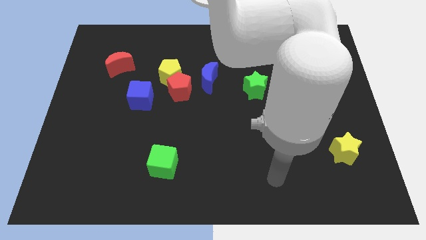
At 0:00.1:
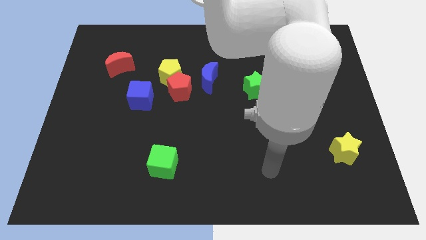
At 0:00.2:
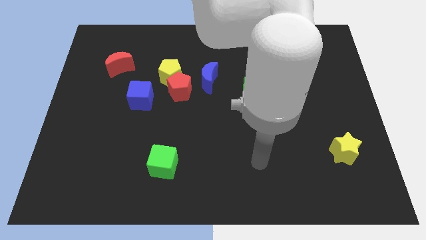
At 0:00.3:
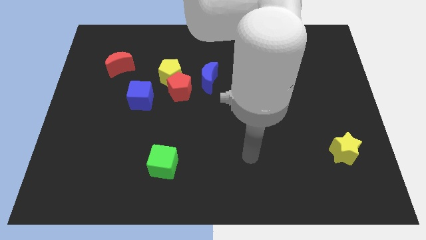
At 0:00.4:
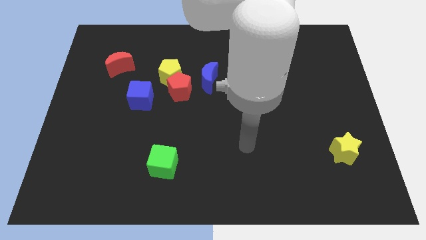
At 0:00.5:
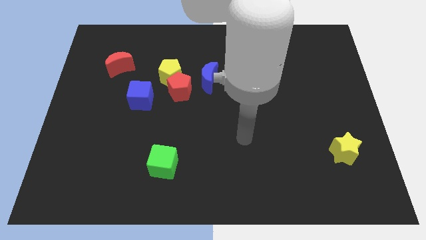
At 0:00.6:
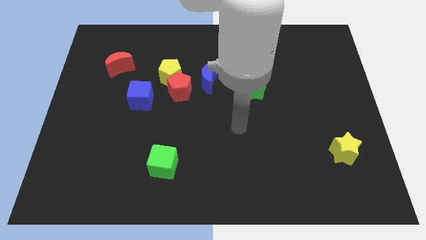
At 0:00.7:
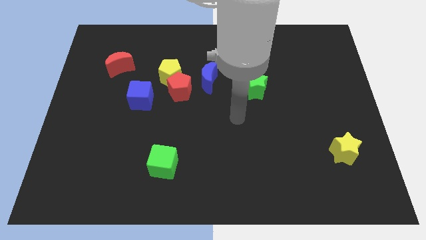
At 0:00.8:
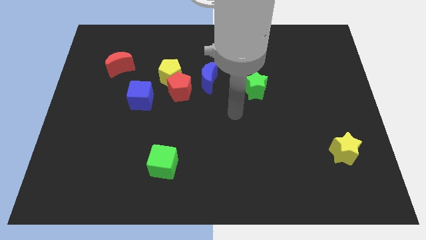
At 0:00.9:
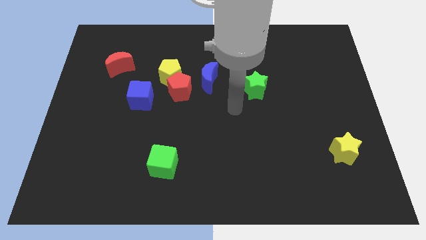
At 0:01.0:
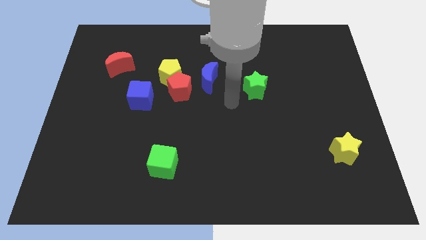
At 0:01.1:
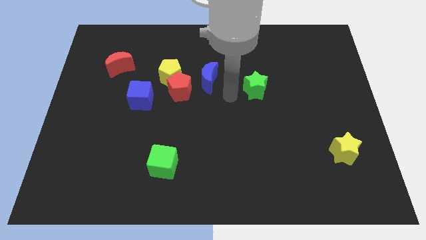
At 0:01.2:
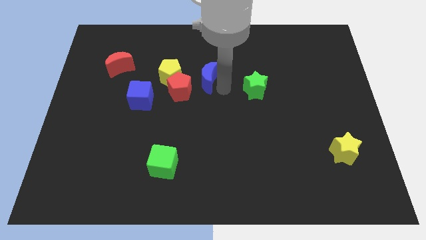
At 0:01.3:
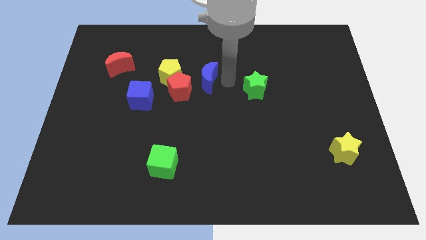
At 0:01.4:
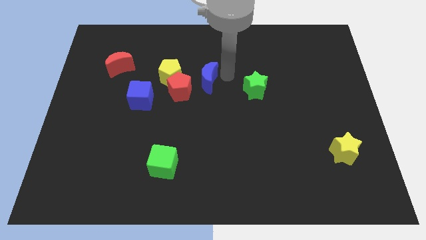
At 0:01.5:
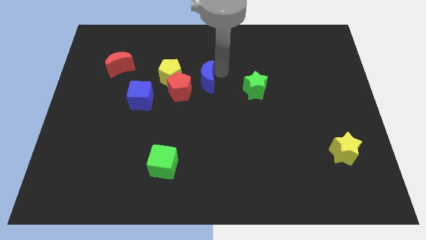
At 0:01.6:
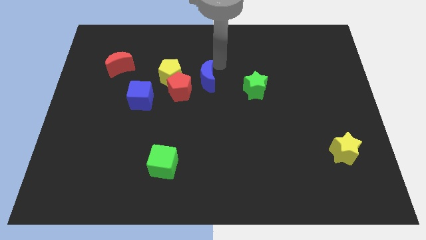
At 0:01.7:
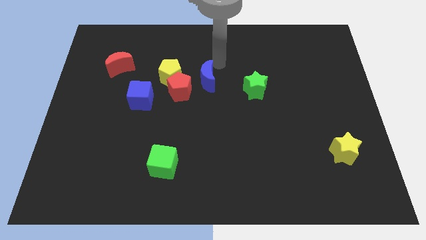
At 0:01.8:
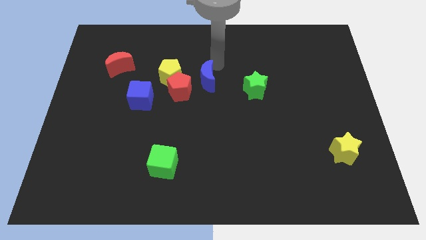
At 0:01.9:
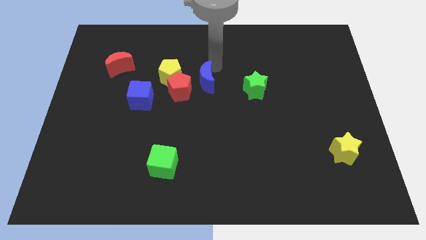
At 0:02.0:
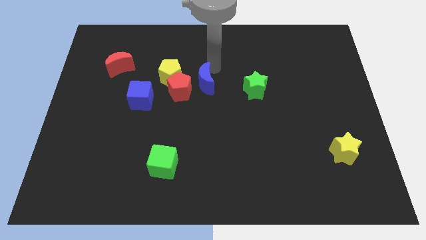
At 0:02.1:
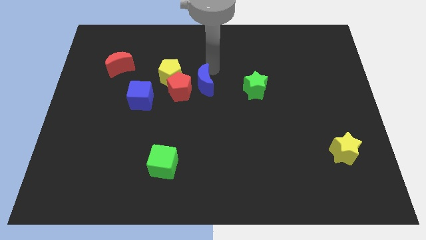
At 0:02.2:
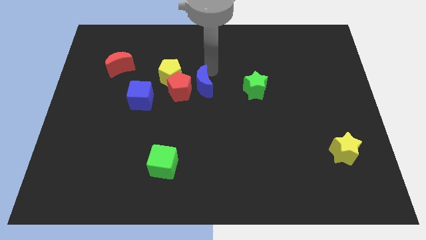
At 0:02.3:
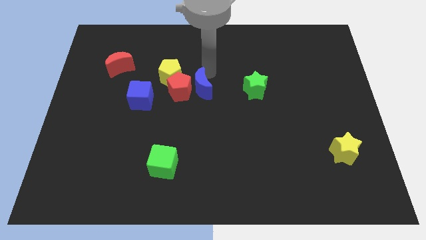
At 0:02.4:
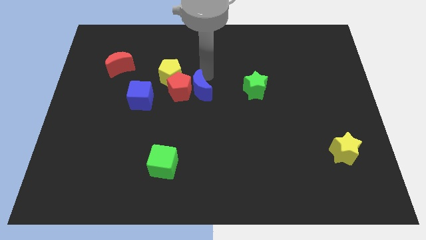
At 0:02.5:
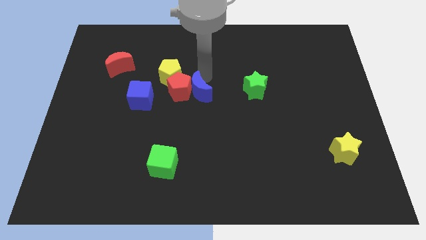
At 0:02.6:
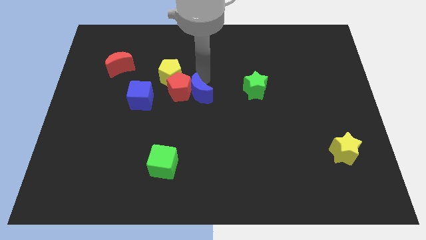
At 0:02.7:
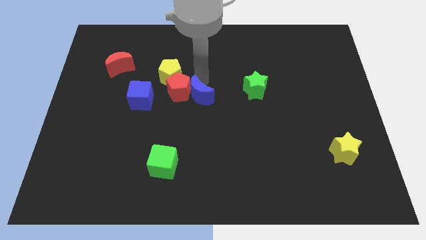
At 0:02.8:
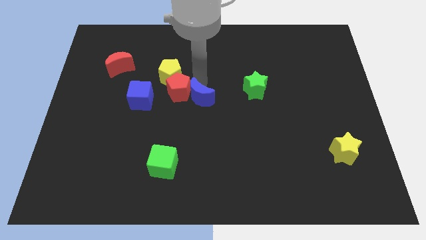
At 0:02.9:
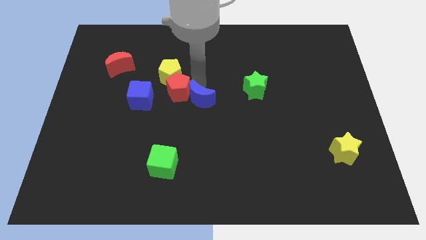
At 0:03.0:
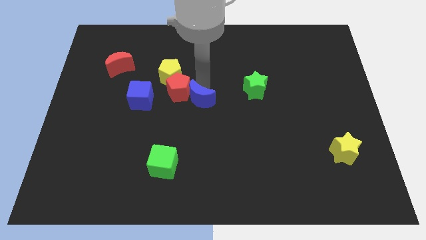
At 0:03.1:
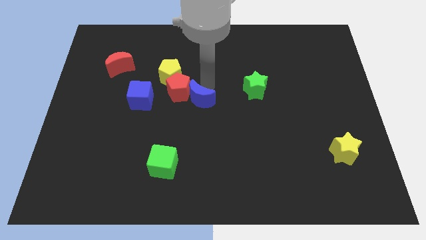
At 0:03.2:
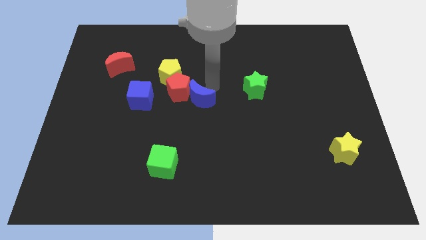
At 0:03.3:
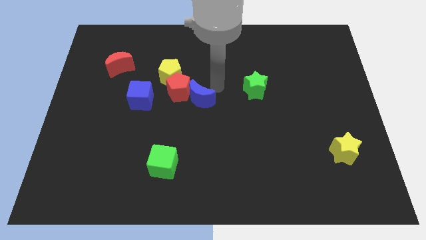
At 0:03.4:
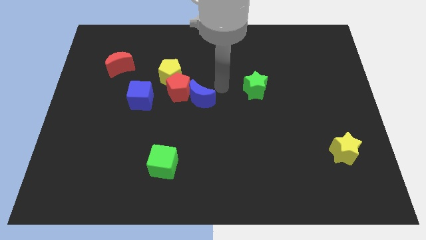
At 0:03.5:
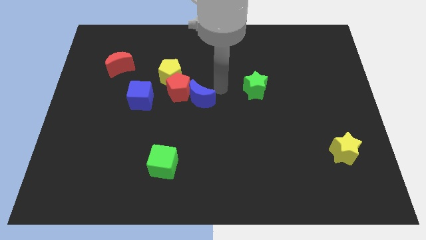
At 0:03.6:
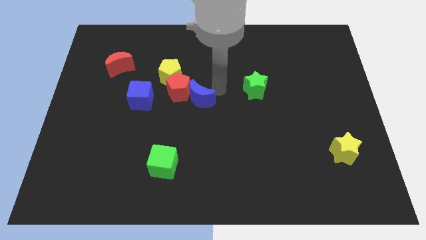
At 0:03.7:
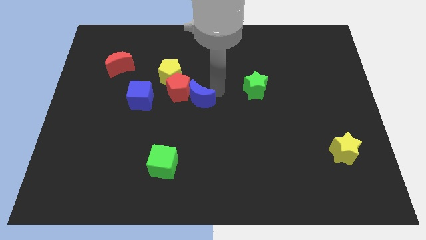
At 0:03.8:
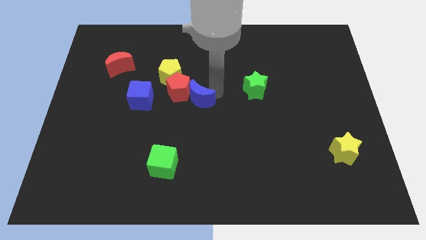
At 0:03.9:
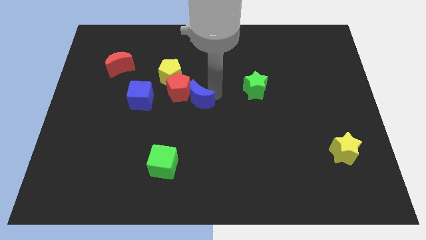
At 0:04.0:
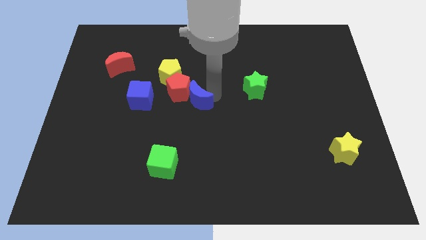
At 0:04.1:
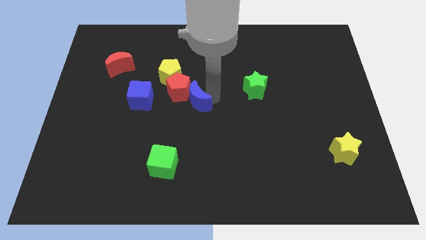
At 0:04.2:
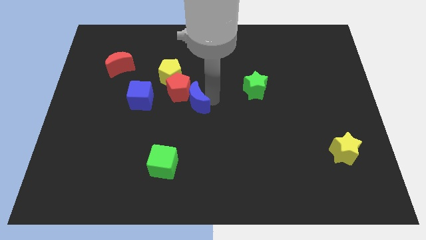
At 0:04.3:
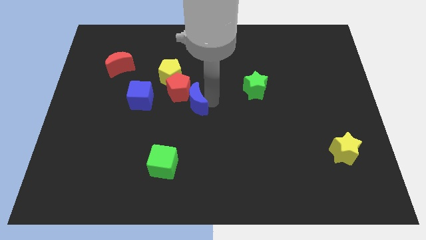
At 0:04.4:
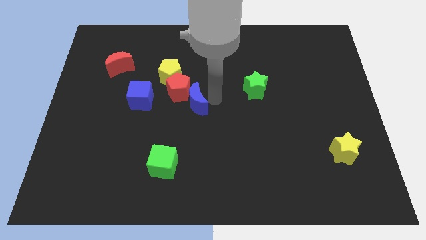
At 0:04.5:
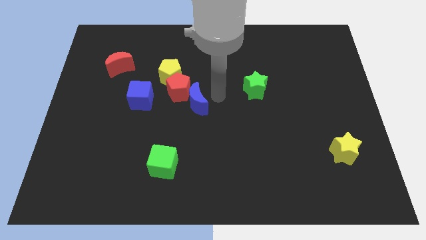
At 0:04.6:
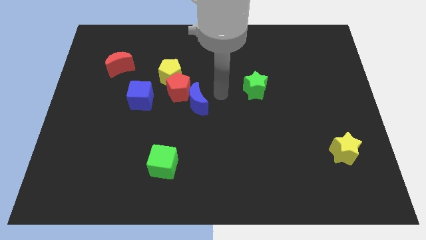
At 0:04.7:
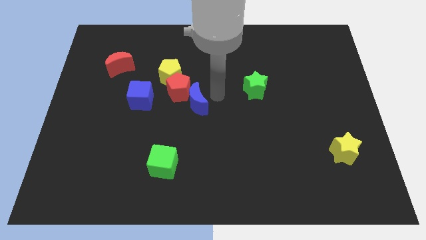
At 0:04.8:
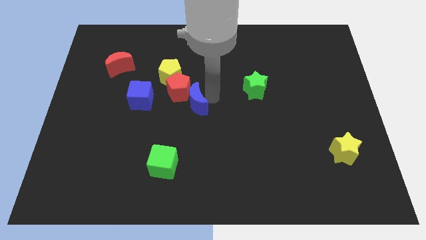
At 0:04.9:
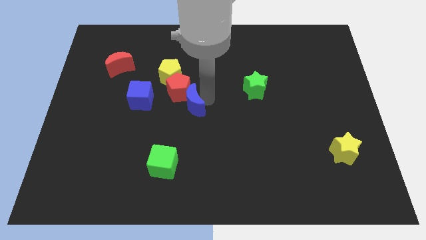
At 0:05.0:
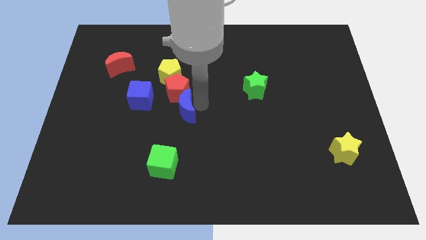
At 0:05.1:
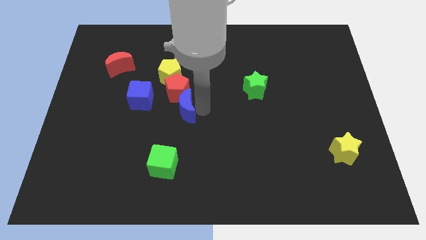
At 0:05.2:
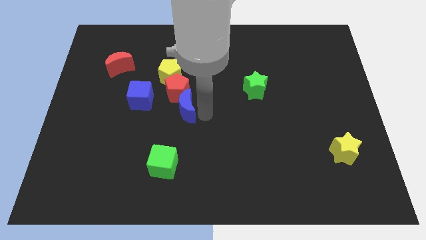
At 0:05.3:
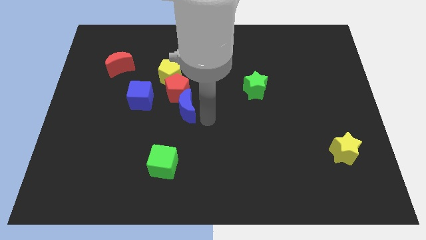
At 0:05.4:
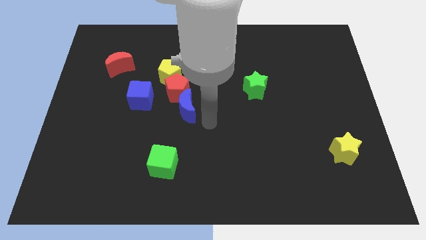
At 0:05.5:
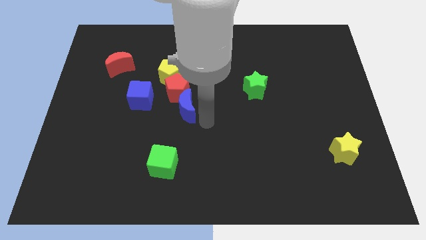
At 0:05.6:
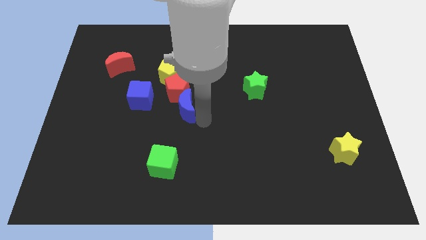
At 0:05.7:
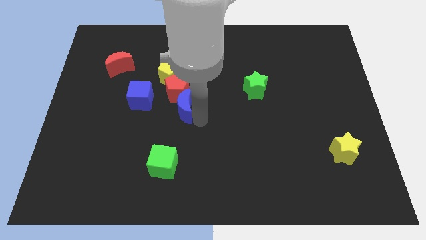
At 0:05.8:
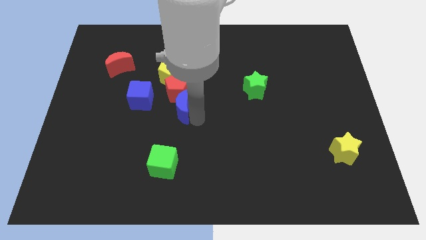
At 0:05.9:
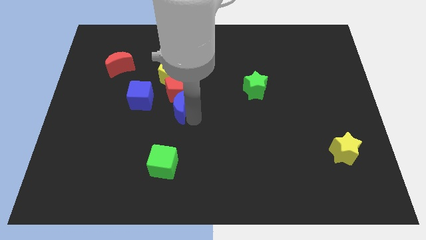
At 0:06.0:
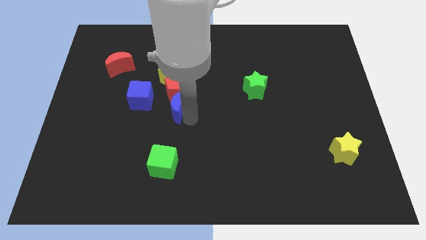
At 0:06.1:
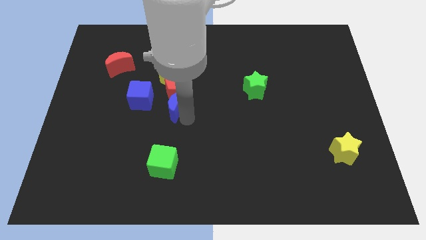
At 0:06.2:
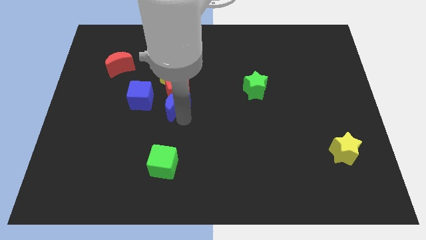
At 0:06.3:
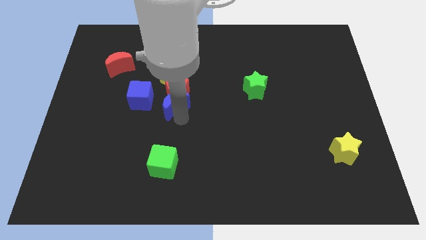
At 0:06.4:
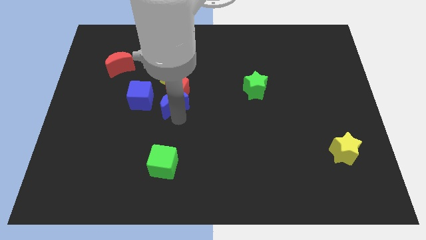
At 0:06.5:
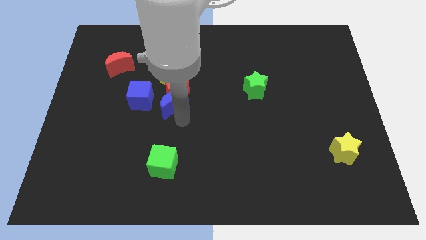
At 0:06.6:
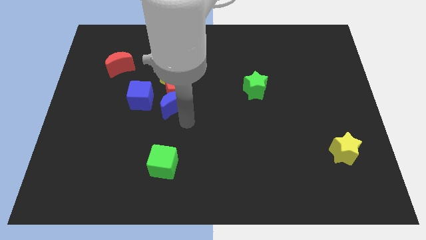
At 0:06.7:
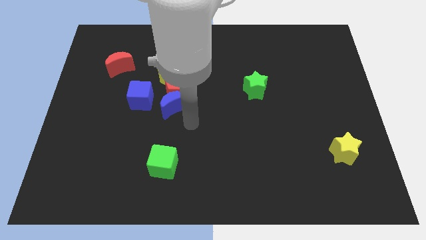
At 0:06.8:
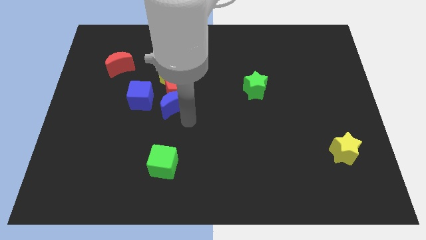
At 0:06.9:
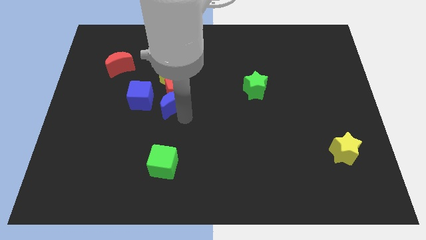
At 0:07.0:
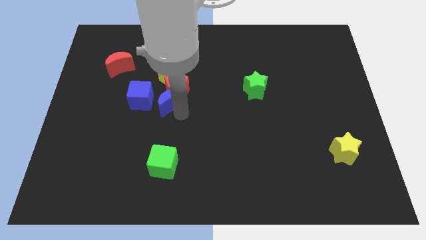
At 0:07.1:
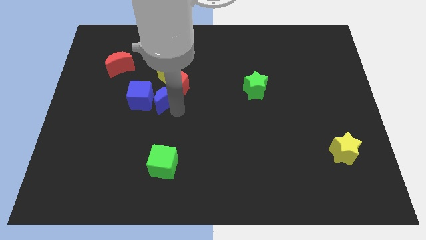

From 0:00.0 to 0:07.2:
move the blue moon to the left a little bit

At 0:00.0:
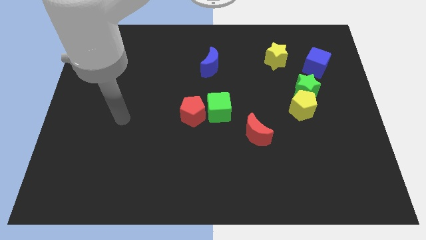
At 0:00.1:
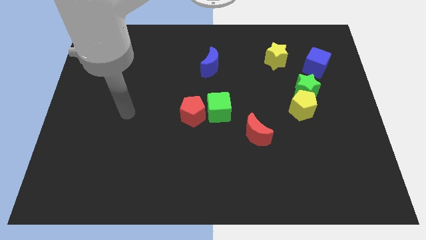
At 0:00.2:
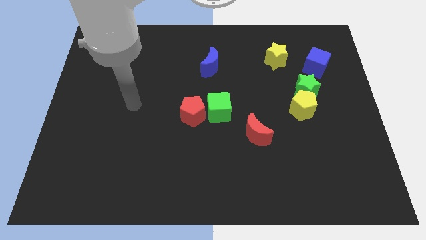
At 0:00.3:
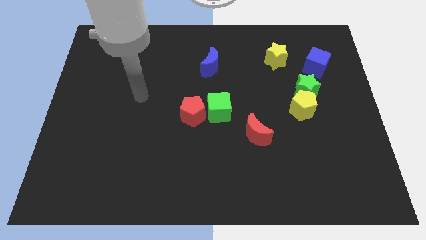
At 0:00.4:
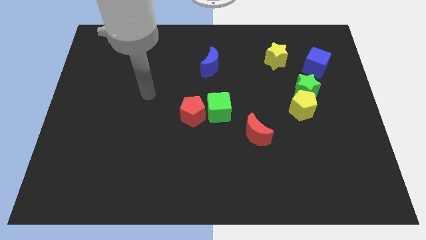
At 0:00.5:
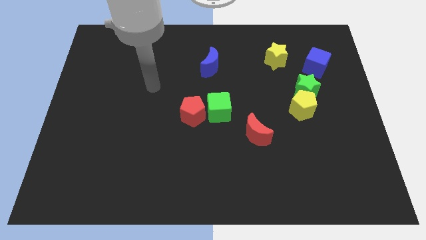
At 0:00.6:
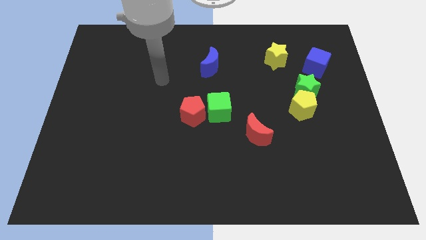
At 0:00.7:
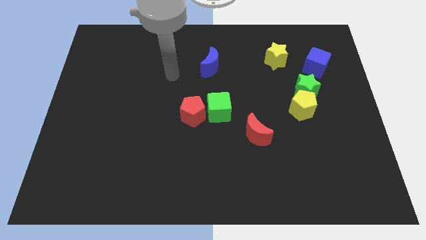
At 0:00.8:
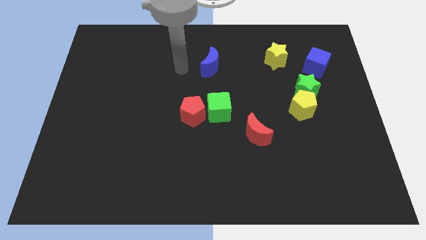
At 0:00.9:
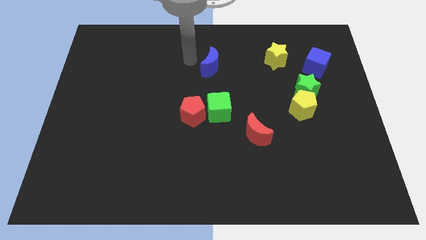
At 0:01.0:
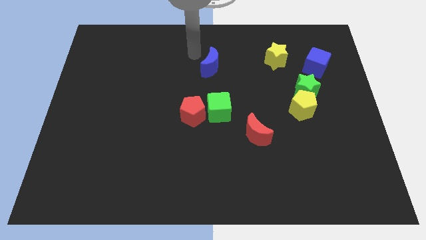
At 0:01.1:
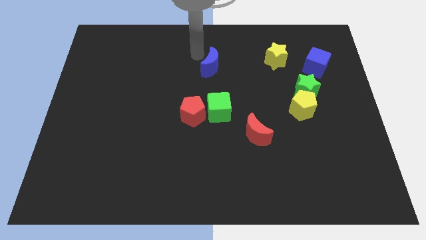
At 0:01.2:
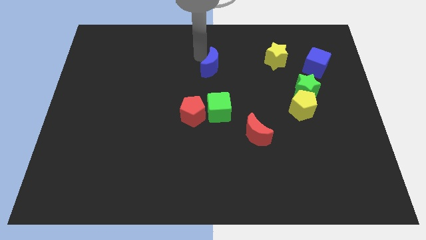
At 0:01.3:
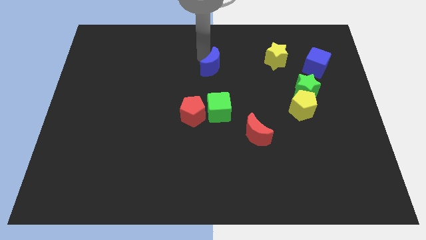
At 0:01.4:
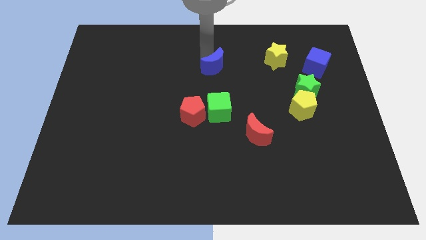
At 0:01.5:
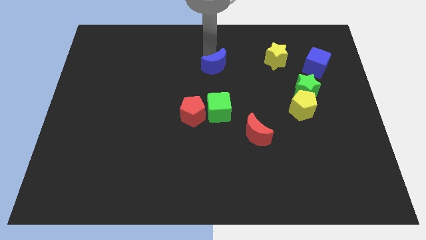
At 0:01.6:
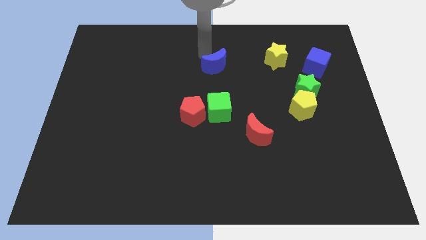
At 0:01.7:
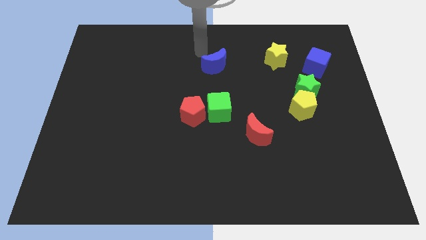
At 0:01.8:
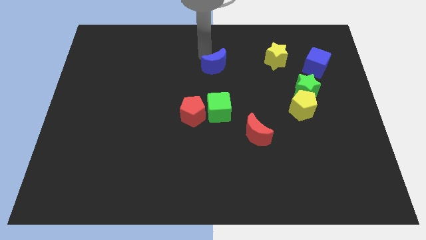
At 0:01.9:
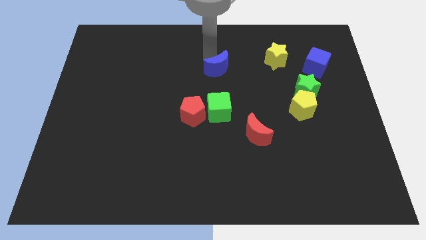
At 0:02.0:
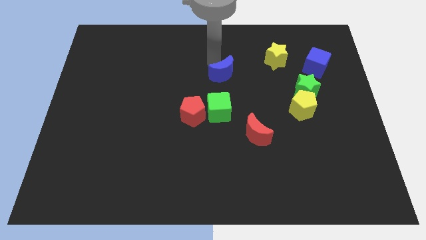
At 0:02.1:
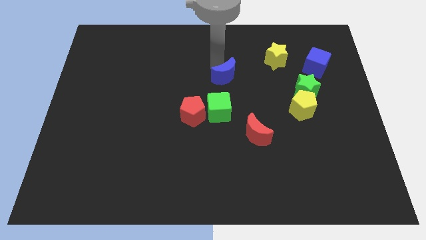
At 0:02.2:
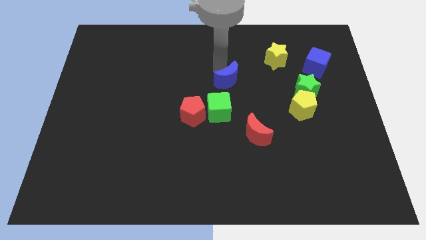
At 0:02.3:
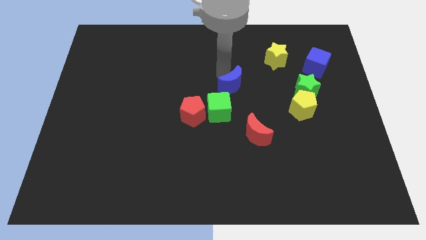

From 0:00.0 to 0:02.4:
slide the blue moon a little bit down and then right
